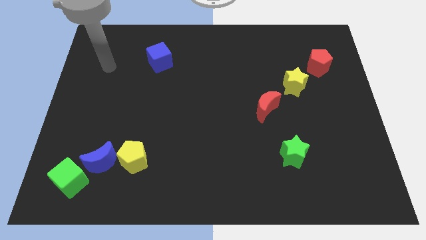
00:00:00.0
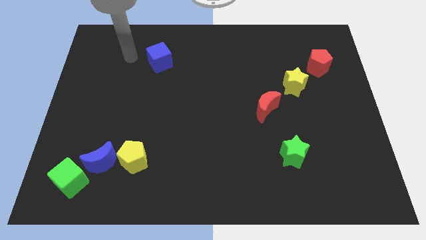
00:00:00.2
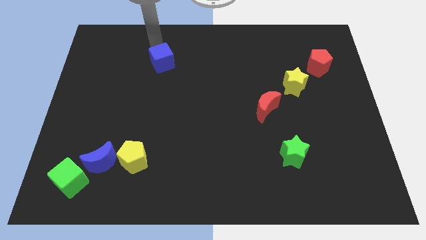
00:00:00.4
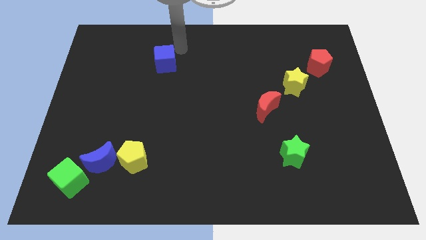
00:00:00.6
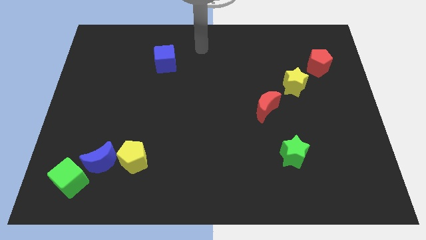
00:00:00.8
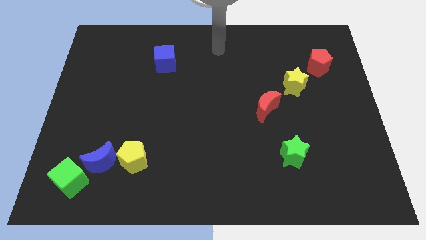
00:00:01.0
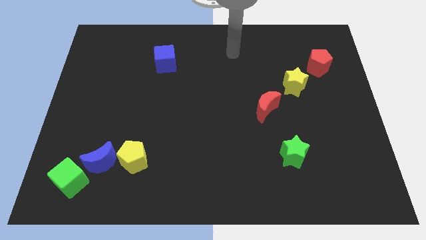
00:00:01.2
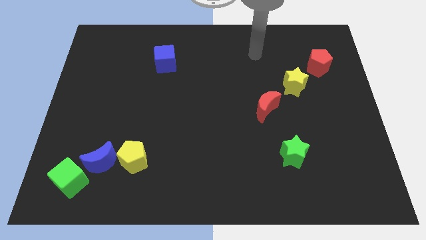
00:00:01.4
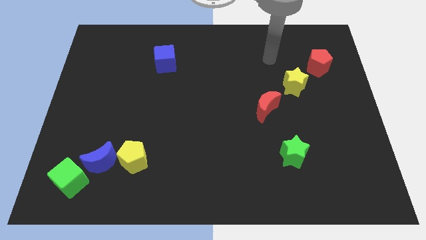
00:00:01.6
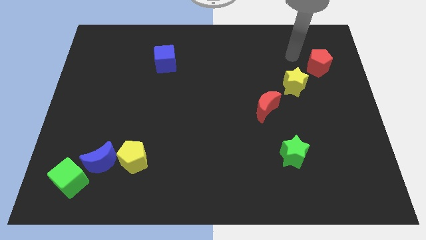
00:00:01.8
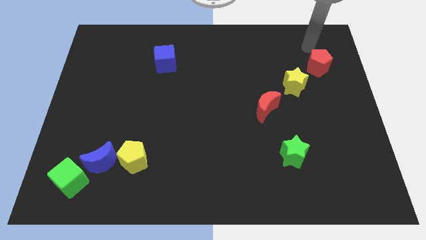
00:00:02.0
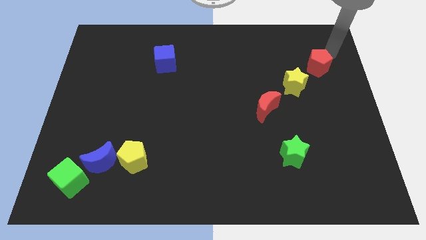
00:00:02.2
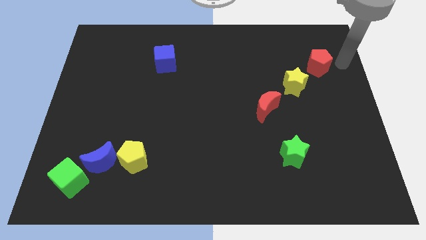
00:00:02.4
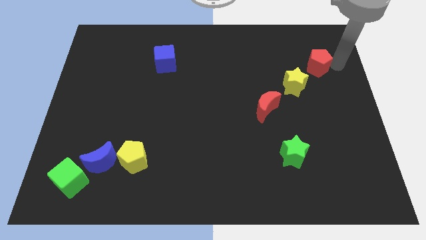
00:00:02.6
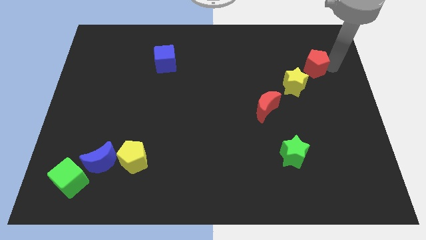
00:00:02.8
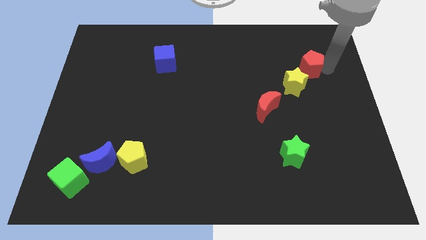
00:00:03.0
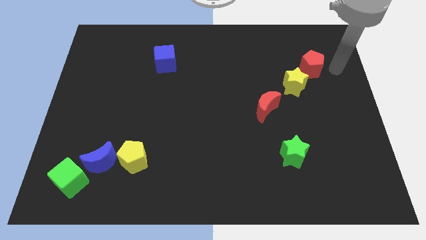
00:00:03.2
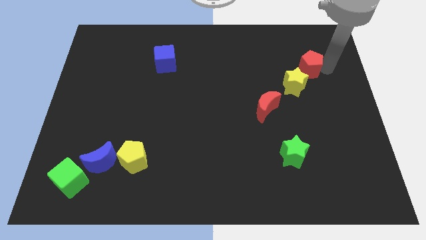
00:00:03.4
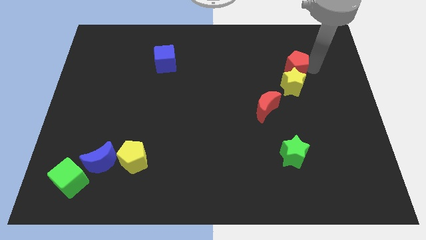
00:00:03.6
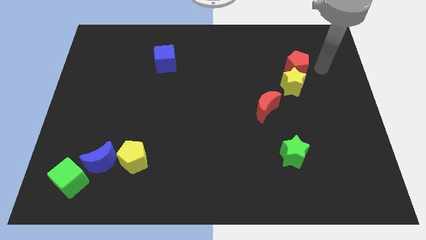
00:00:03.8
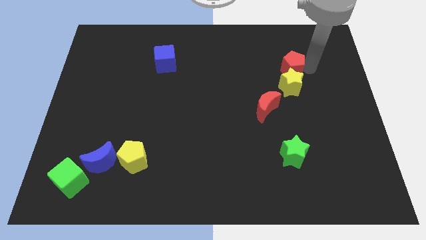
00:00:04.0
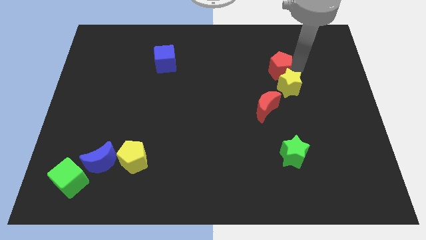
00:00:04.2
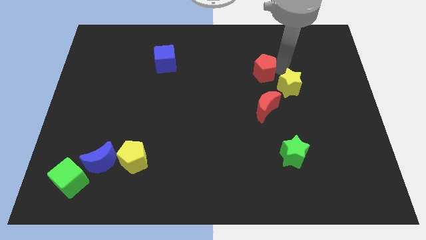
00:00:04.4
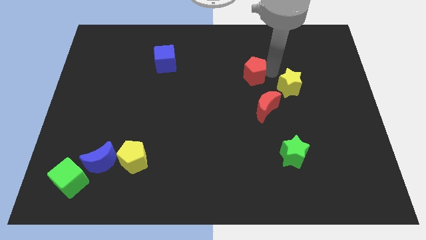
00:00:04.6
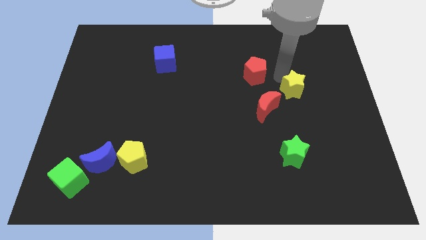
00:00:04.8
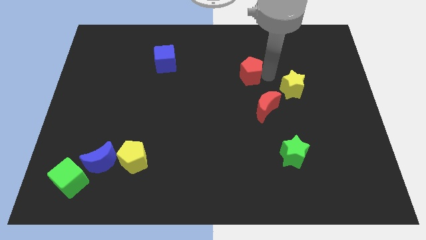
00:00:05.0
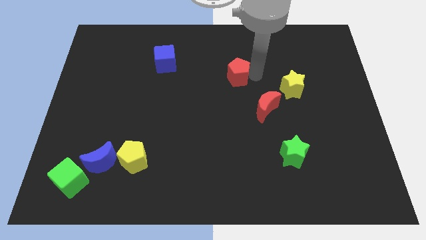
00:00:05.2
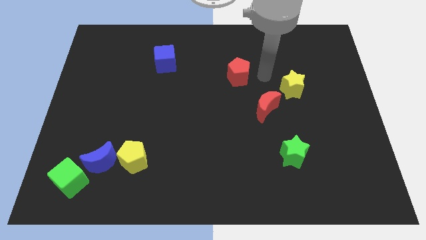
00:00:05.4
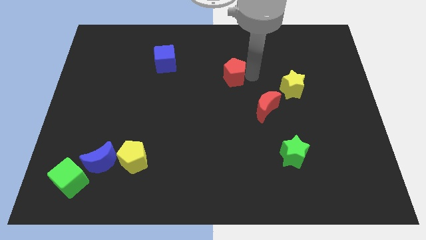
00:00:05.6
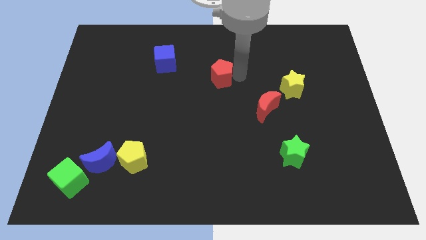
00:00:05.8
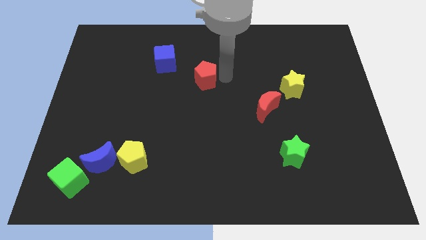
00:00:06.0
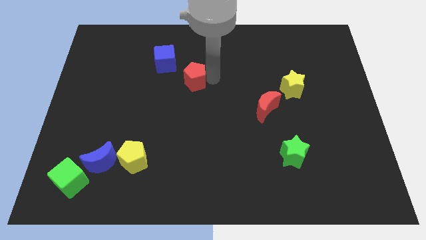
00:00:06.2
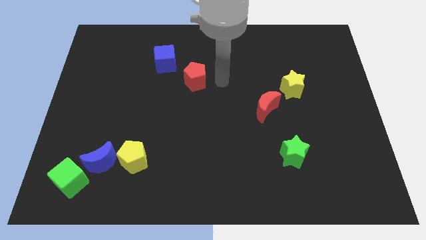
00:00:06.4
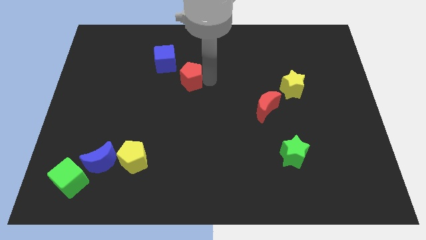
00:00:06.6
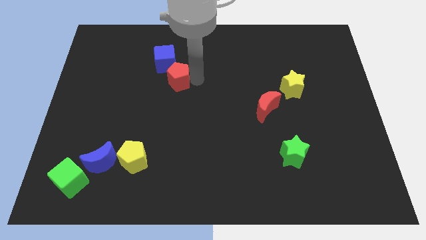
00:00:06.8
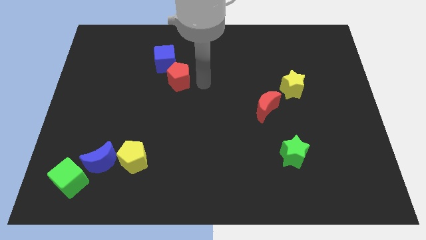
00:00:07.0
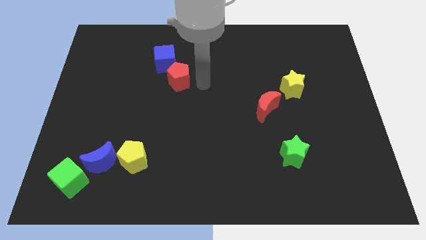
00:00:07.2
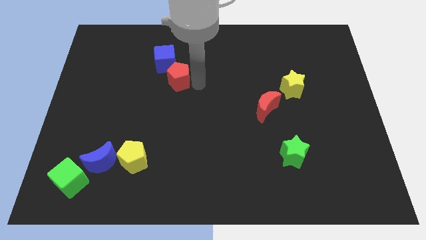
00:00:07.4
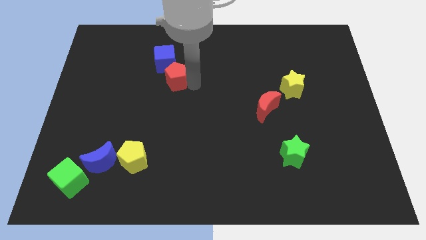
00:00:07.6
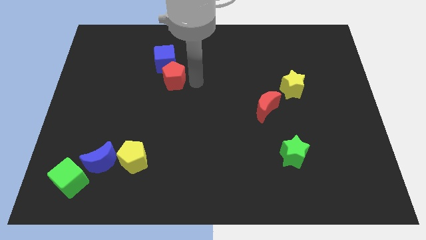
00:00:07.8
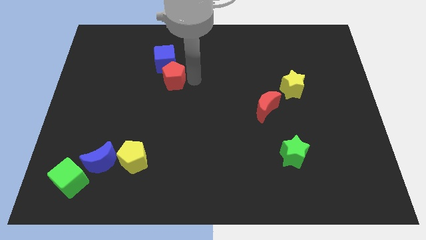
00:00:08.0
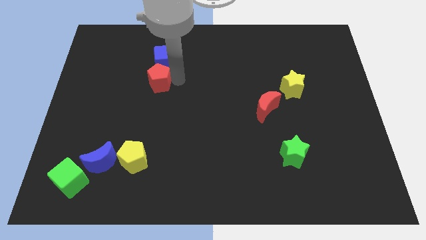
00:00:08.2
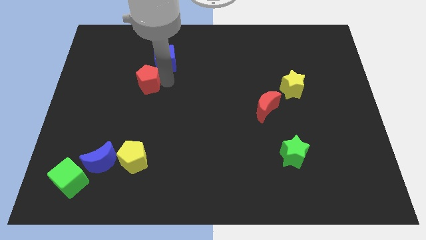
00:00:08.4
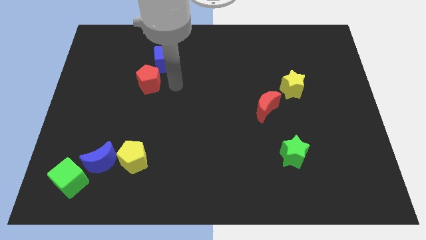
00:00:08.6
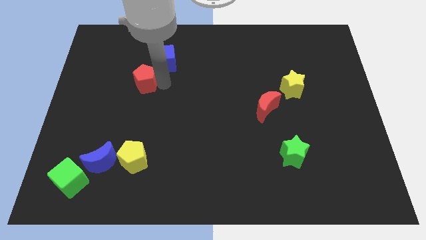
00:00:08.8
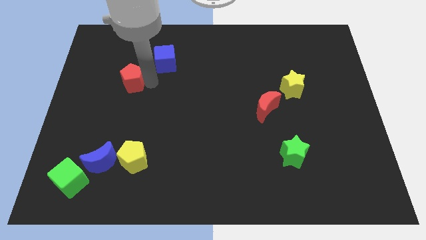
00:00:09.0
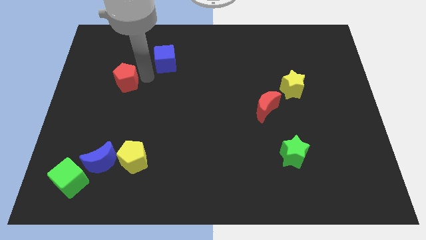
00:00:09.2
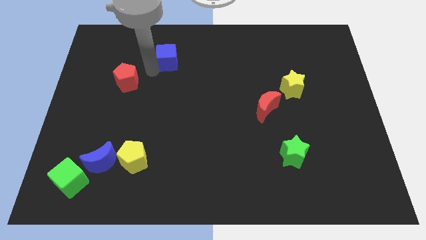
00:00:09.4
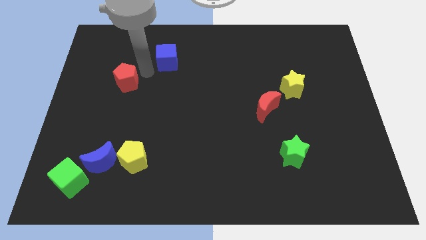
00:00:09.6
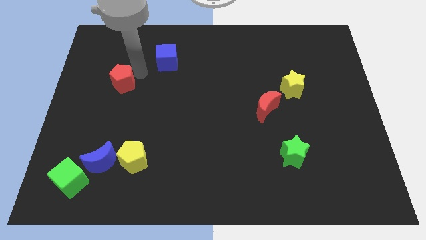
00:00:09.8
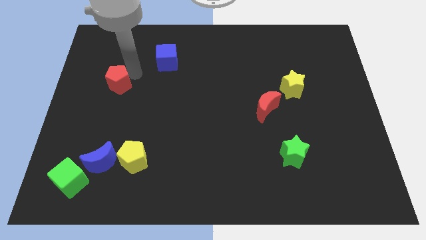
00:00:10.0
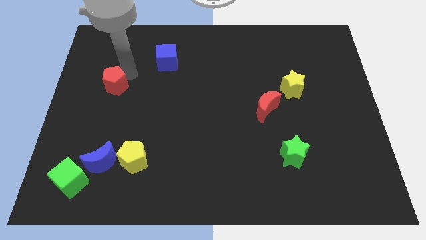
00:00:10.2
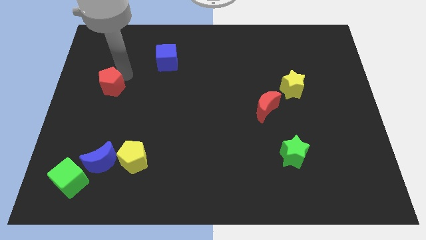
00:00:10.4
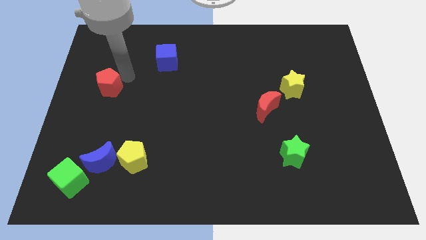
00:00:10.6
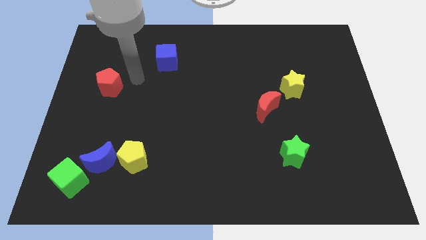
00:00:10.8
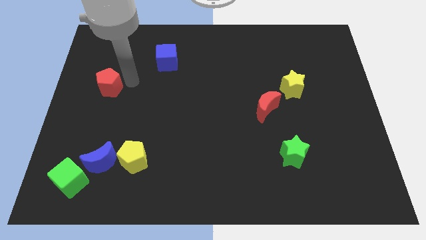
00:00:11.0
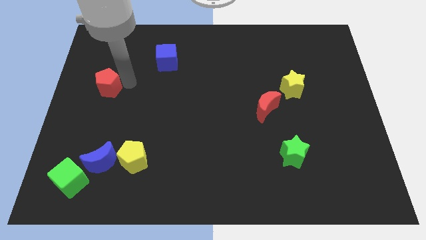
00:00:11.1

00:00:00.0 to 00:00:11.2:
move the red pentagon to the left side of the board

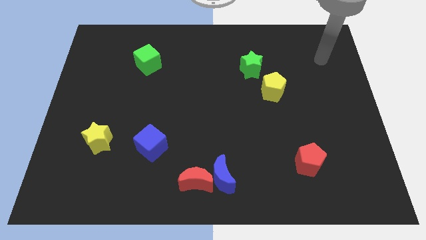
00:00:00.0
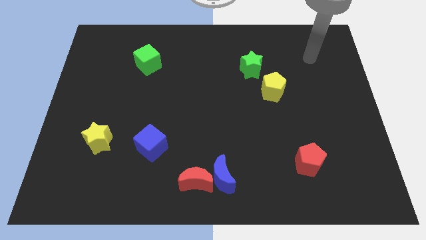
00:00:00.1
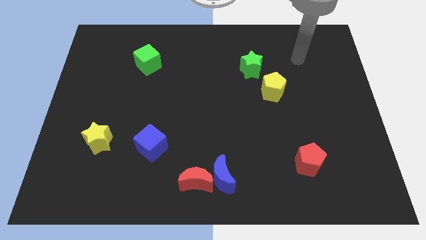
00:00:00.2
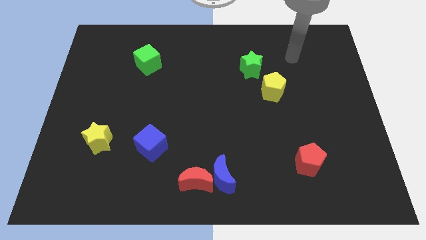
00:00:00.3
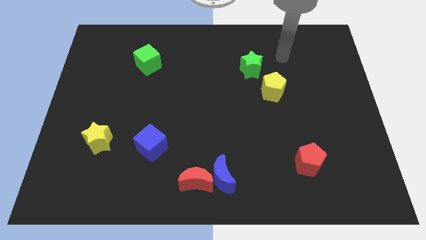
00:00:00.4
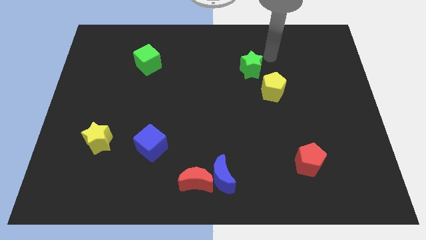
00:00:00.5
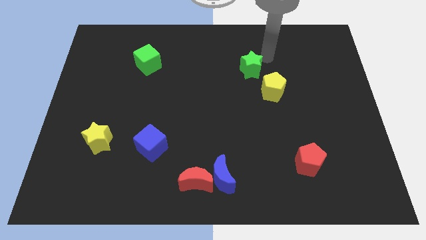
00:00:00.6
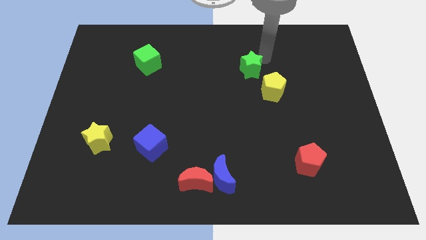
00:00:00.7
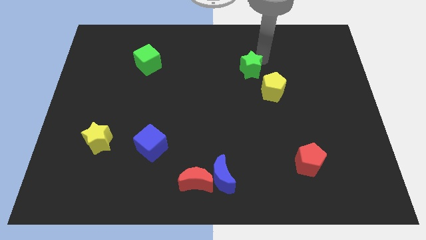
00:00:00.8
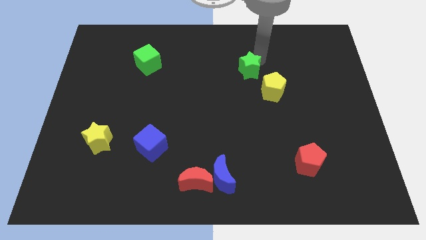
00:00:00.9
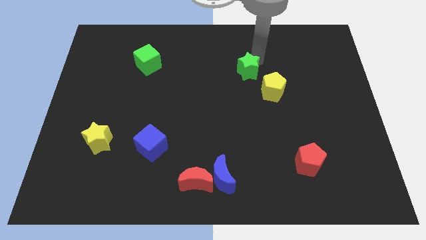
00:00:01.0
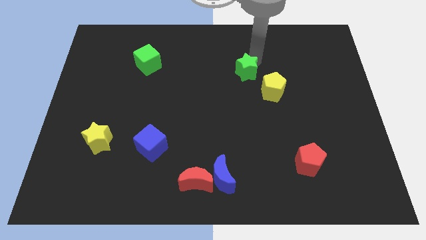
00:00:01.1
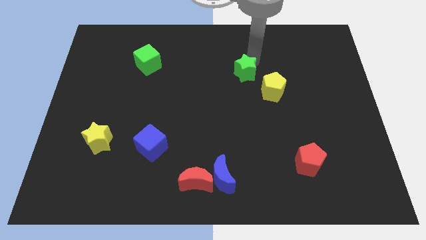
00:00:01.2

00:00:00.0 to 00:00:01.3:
put the green star to the middle of the board
